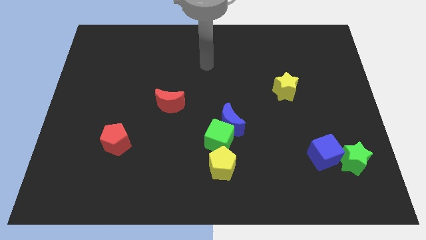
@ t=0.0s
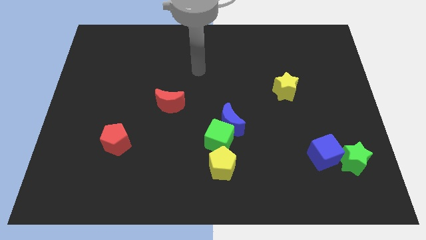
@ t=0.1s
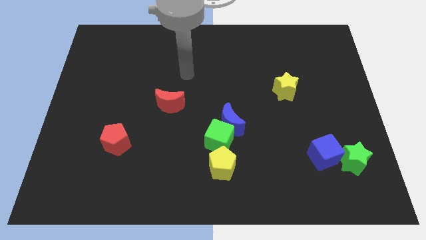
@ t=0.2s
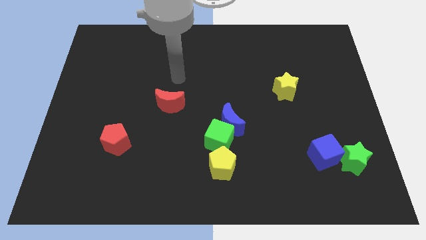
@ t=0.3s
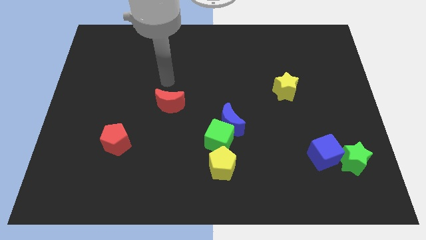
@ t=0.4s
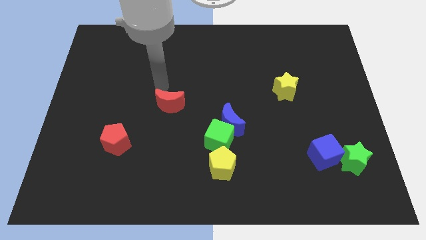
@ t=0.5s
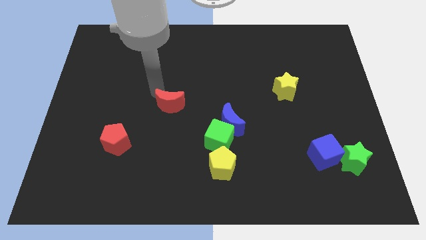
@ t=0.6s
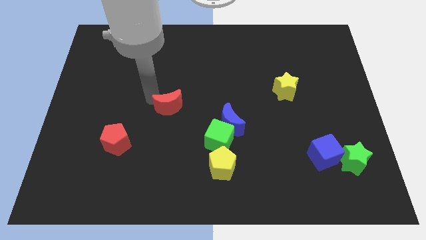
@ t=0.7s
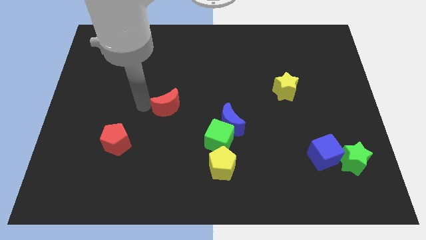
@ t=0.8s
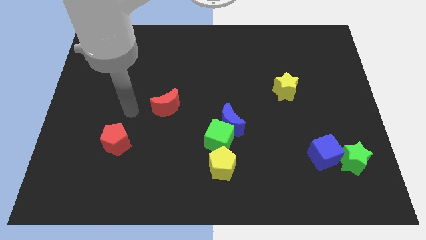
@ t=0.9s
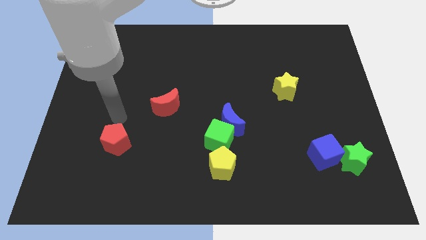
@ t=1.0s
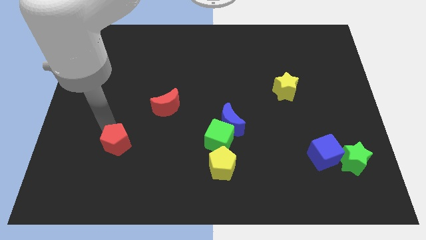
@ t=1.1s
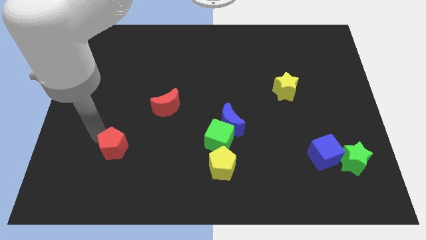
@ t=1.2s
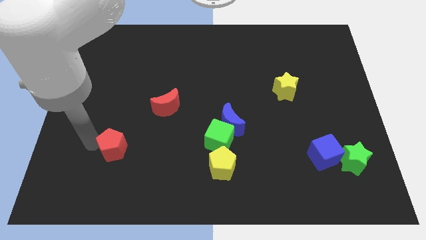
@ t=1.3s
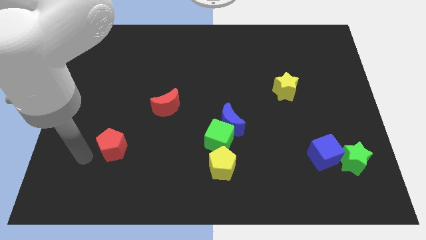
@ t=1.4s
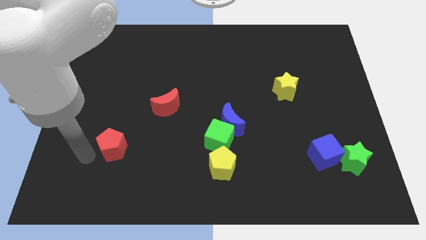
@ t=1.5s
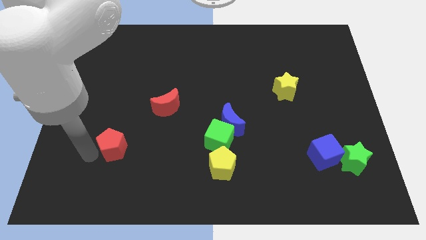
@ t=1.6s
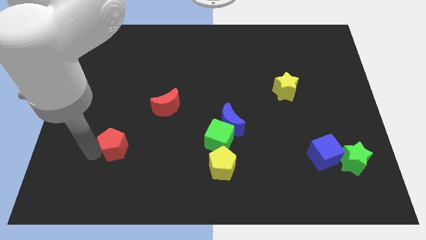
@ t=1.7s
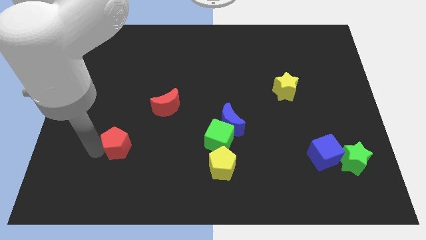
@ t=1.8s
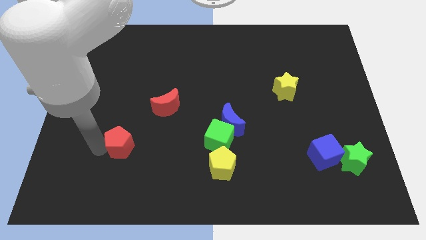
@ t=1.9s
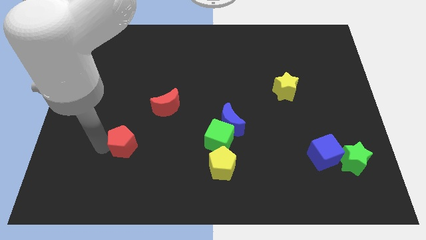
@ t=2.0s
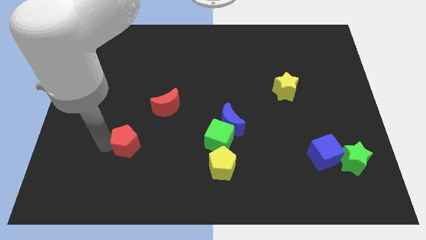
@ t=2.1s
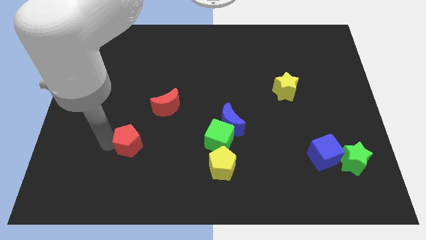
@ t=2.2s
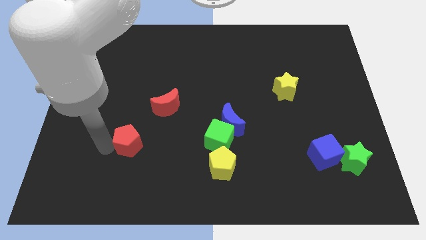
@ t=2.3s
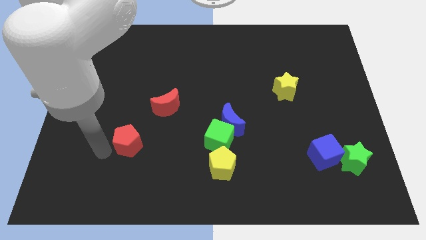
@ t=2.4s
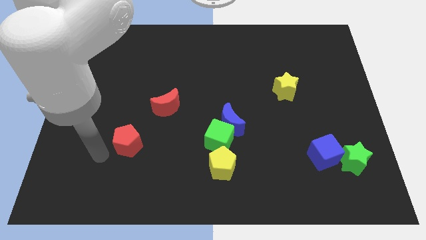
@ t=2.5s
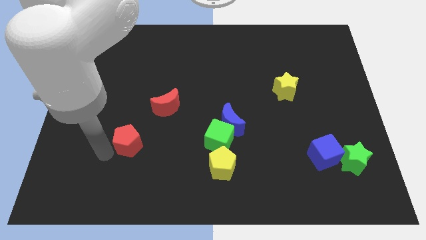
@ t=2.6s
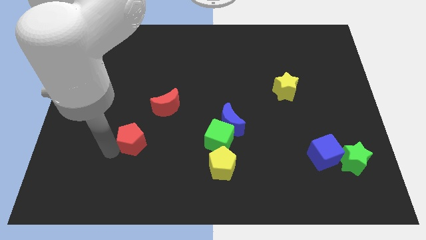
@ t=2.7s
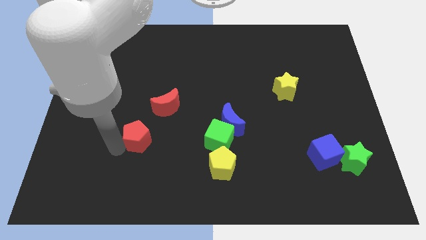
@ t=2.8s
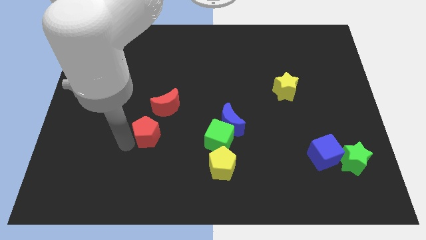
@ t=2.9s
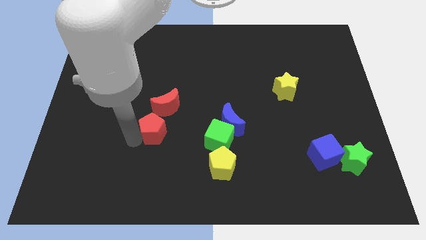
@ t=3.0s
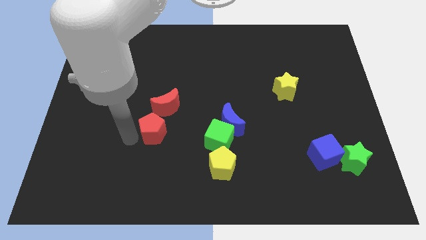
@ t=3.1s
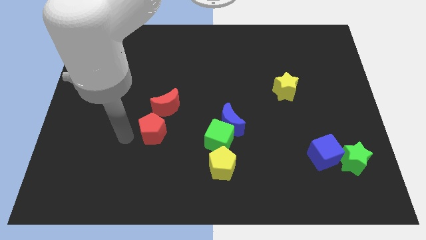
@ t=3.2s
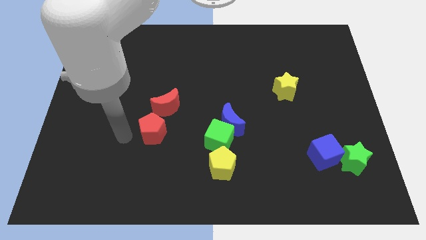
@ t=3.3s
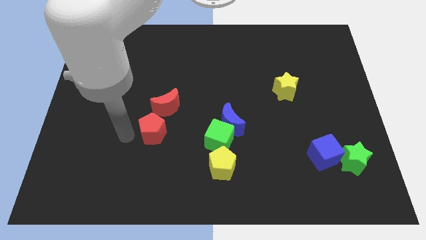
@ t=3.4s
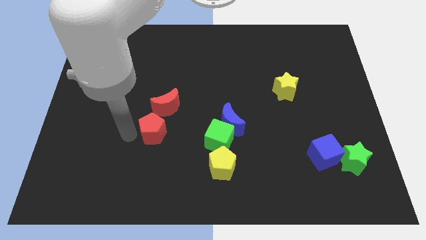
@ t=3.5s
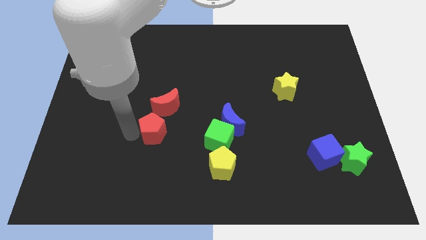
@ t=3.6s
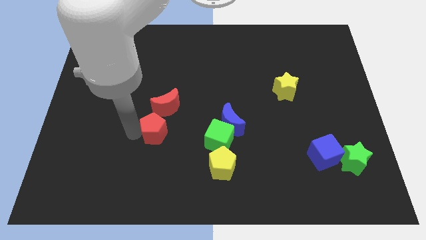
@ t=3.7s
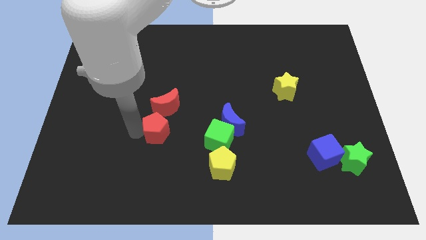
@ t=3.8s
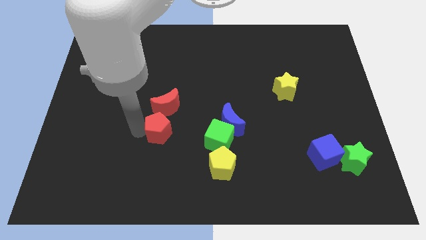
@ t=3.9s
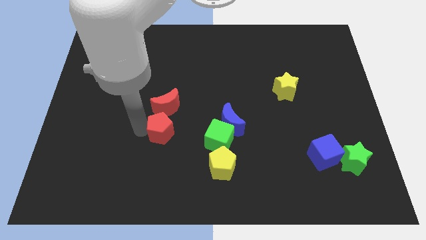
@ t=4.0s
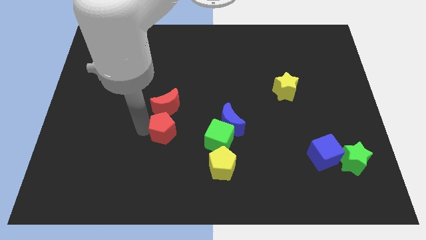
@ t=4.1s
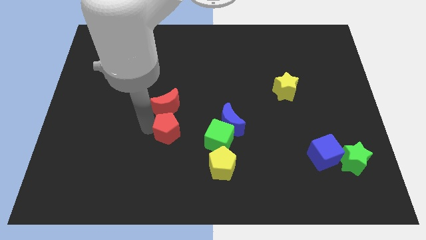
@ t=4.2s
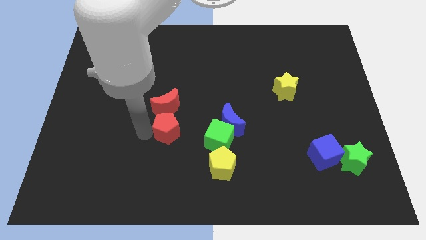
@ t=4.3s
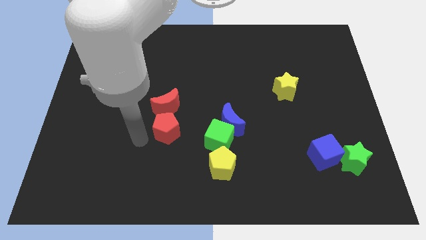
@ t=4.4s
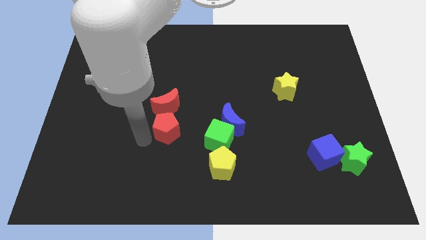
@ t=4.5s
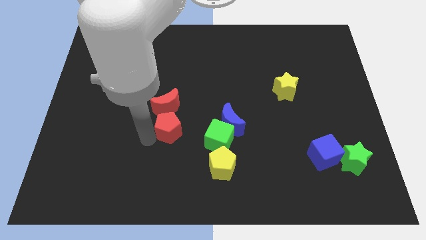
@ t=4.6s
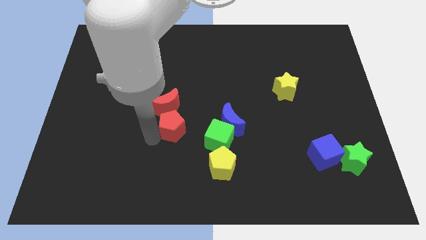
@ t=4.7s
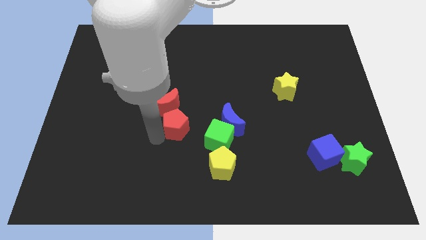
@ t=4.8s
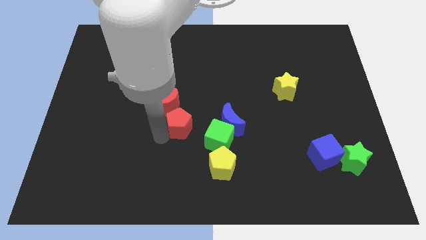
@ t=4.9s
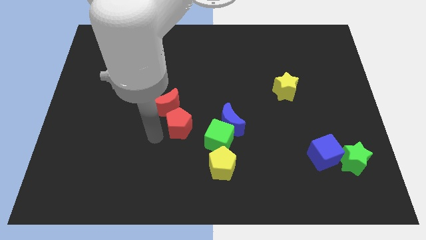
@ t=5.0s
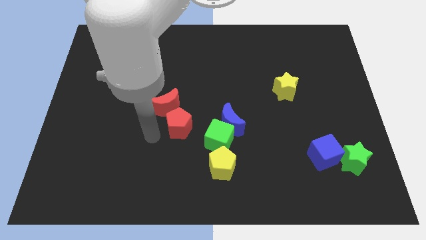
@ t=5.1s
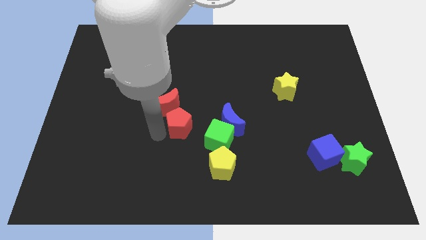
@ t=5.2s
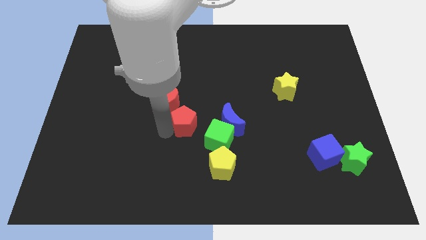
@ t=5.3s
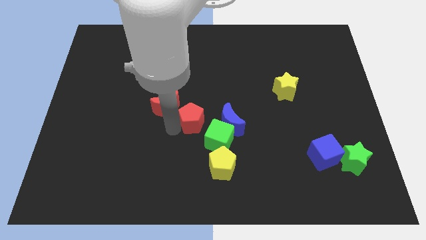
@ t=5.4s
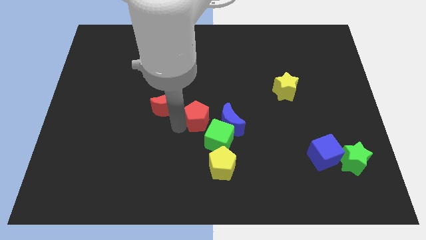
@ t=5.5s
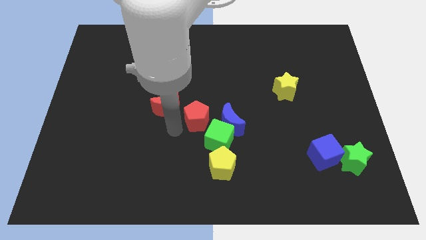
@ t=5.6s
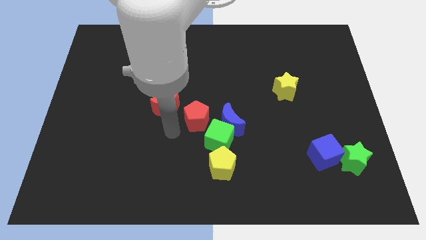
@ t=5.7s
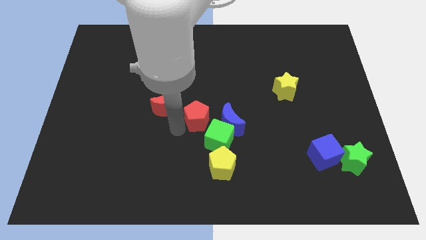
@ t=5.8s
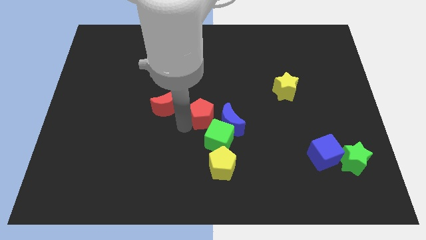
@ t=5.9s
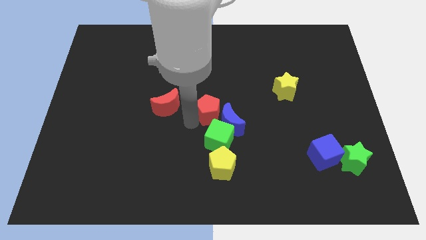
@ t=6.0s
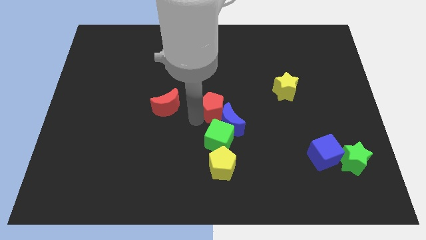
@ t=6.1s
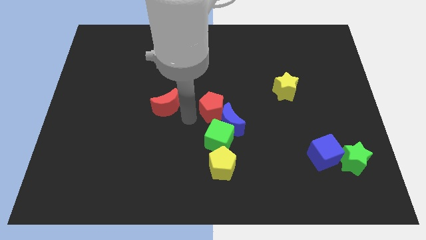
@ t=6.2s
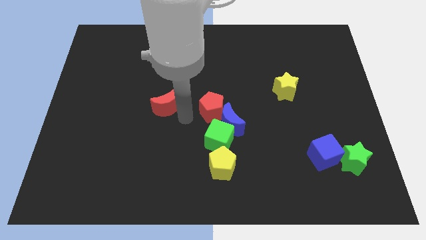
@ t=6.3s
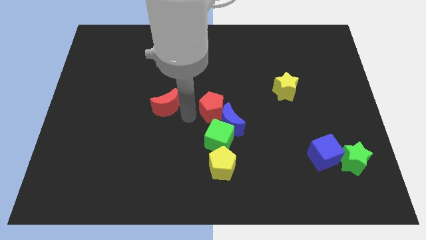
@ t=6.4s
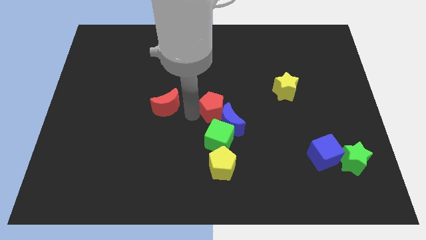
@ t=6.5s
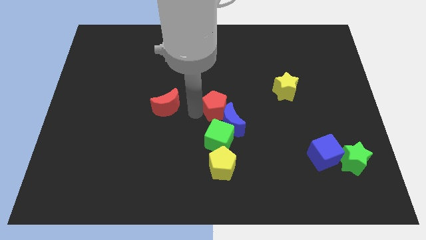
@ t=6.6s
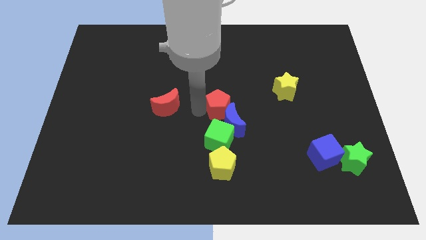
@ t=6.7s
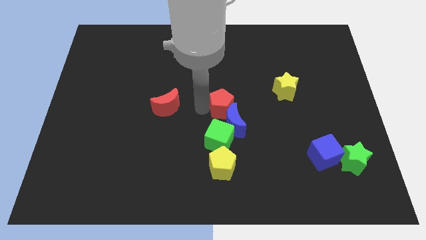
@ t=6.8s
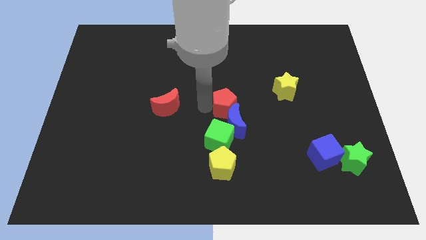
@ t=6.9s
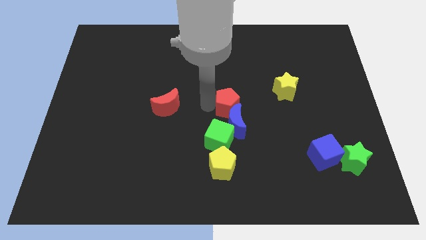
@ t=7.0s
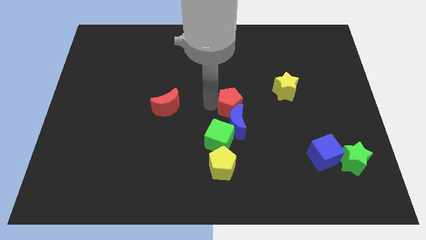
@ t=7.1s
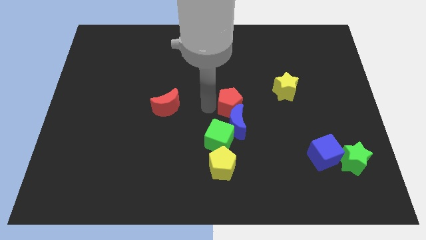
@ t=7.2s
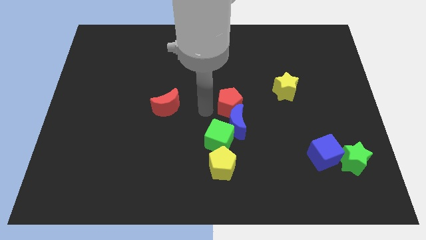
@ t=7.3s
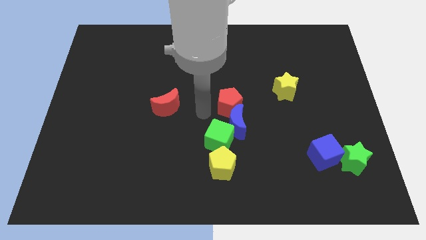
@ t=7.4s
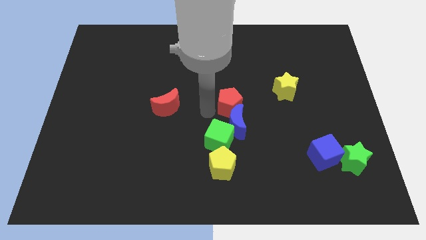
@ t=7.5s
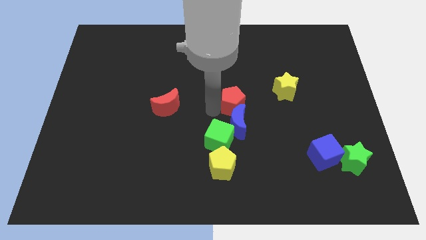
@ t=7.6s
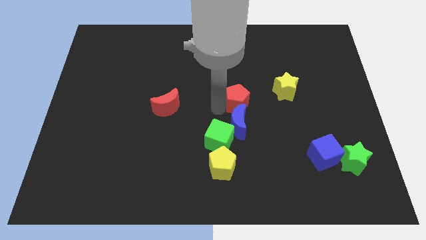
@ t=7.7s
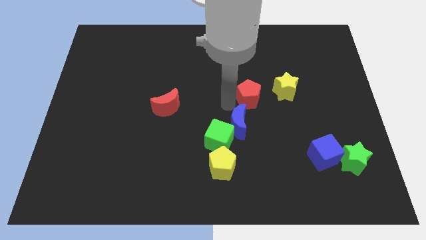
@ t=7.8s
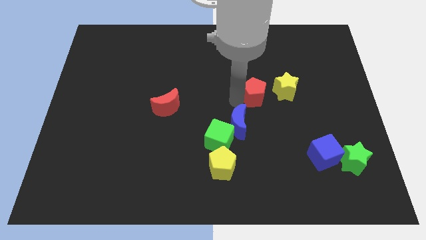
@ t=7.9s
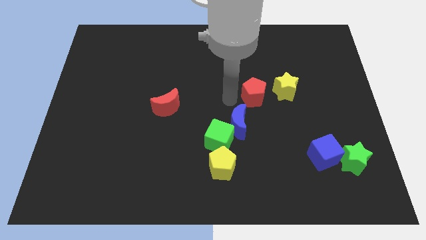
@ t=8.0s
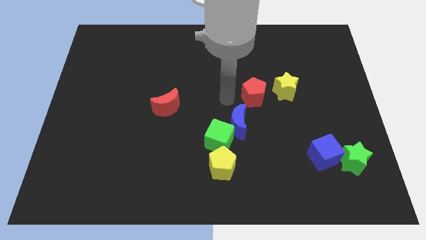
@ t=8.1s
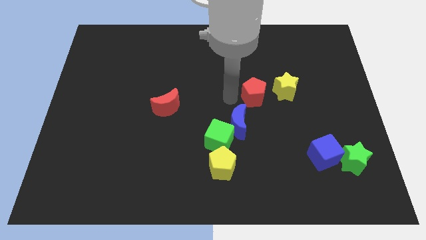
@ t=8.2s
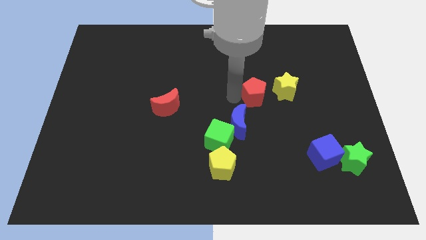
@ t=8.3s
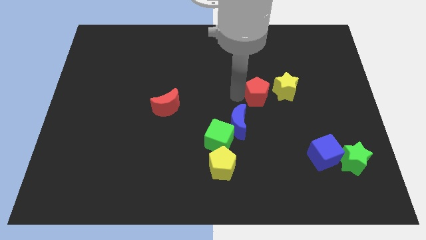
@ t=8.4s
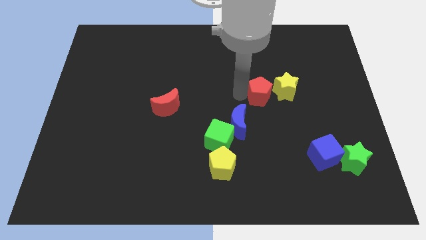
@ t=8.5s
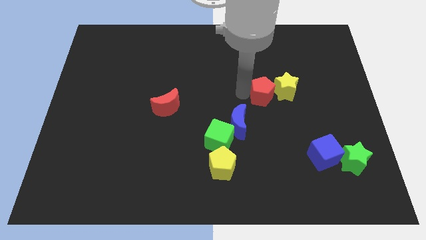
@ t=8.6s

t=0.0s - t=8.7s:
push the red pentagon next to the yellow star
